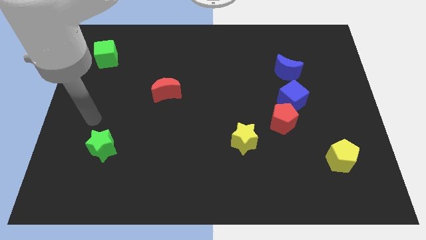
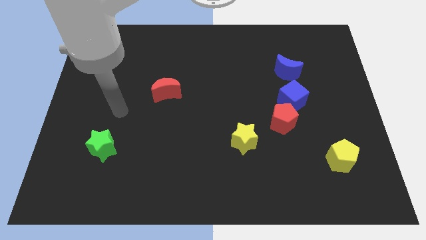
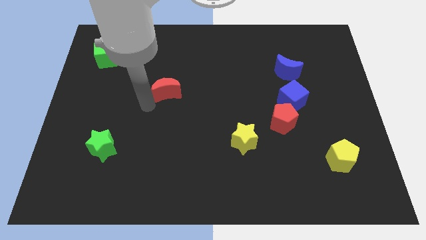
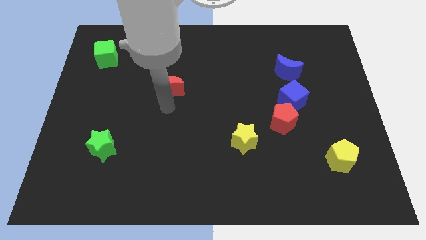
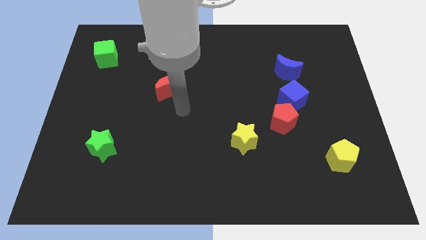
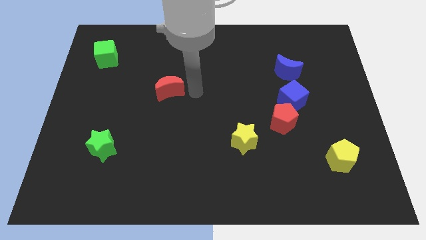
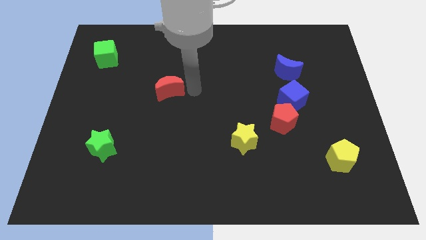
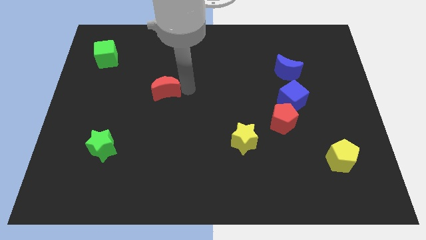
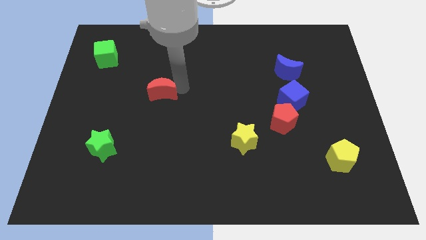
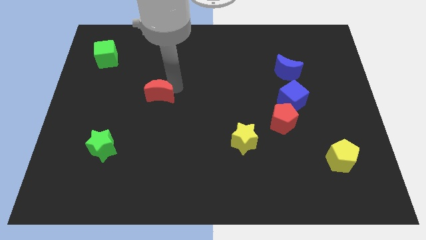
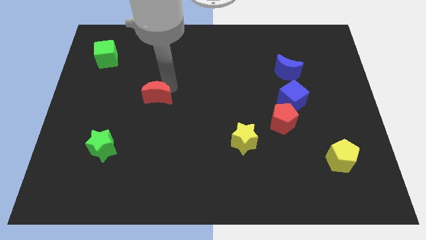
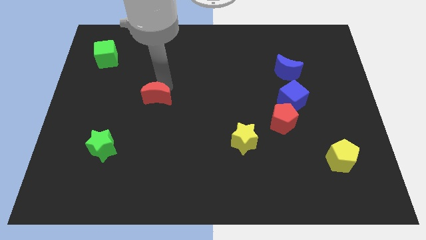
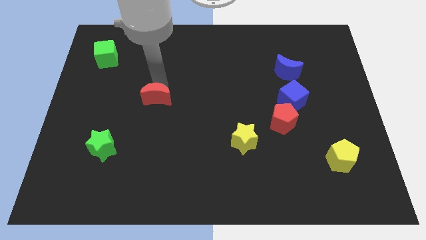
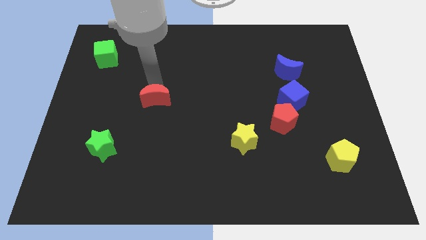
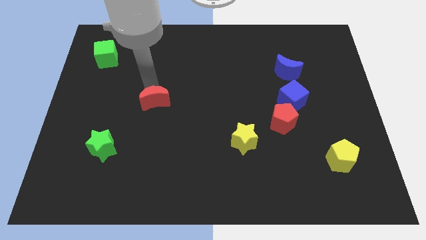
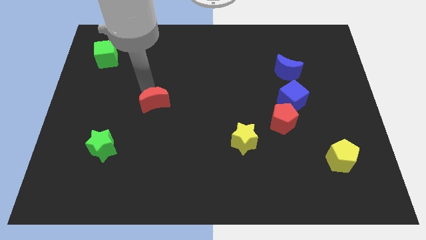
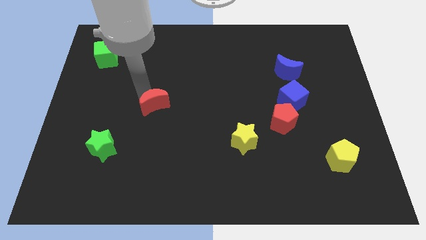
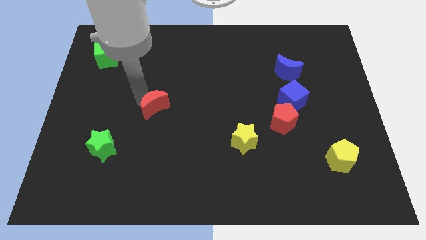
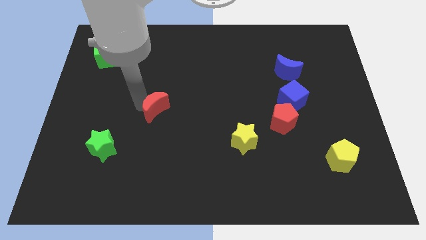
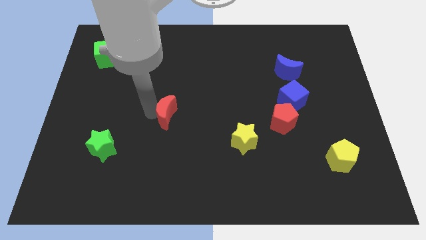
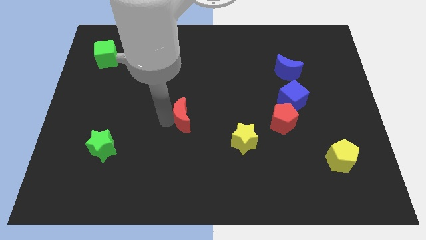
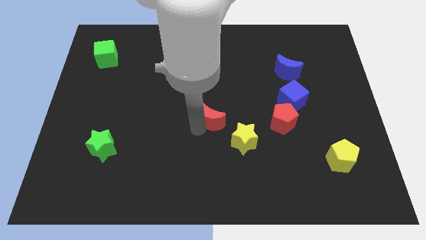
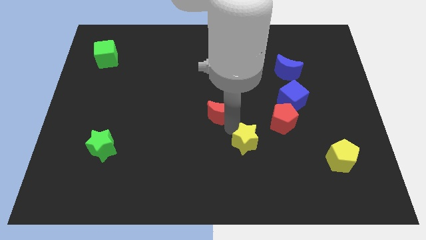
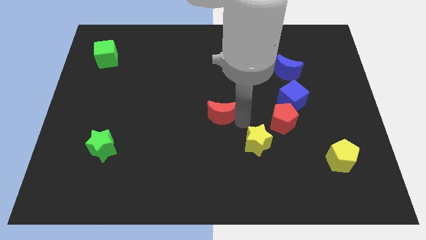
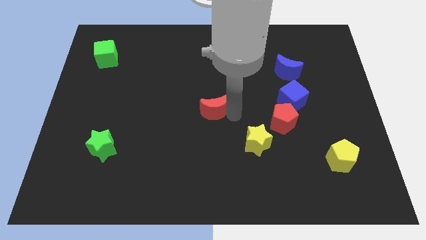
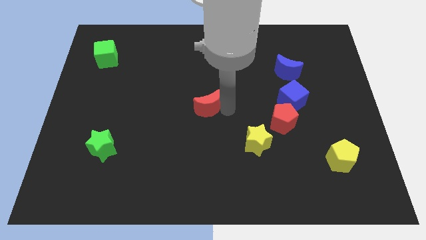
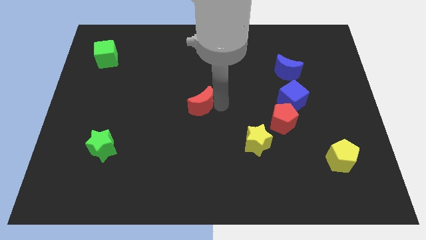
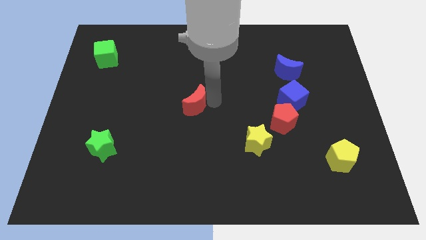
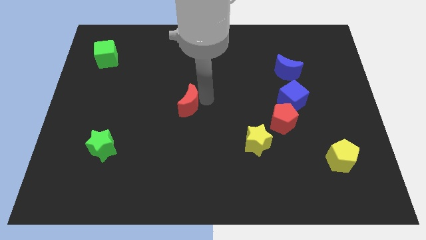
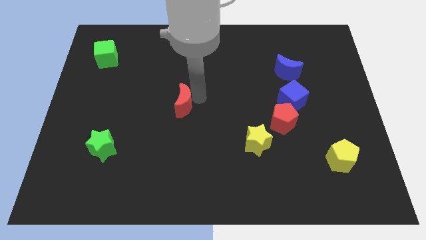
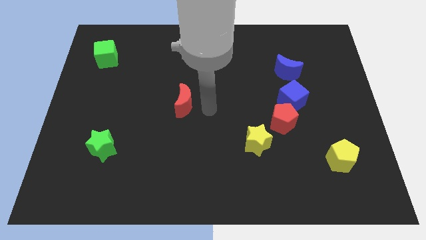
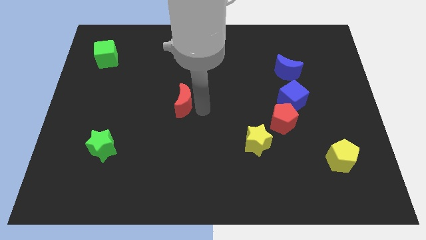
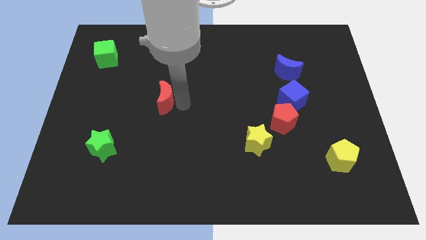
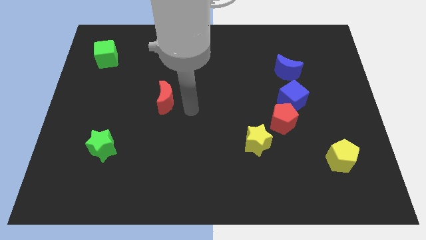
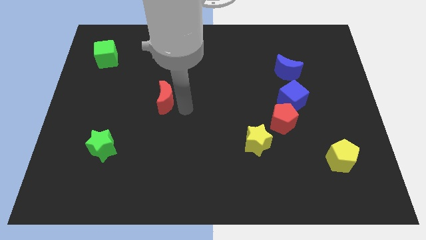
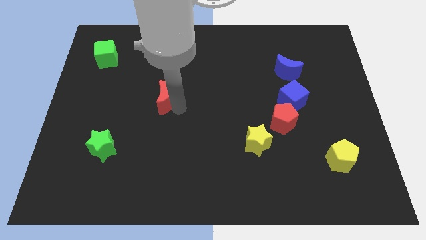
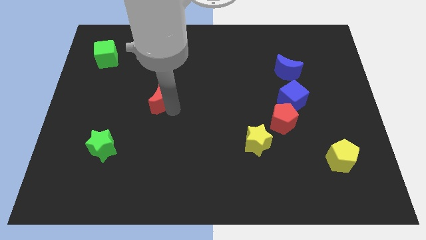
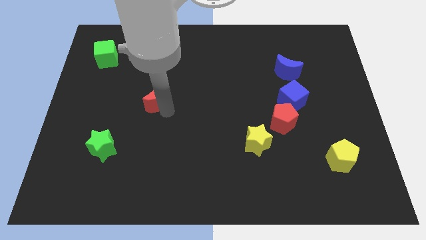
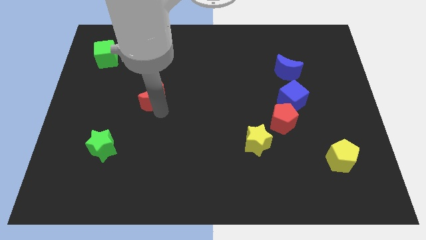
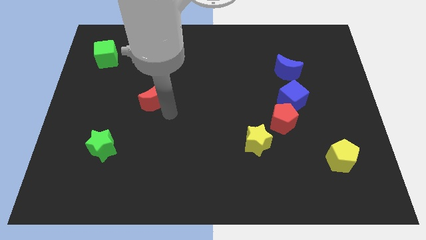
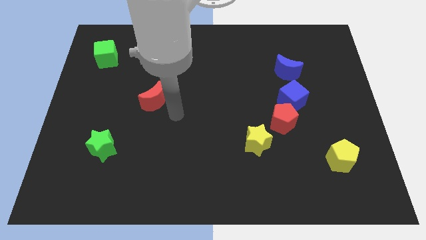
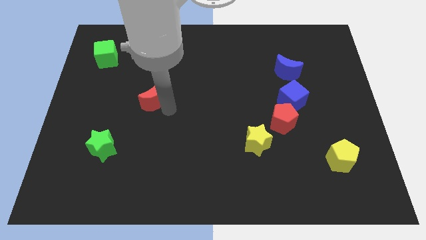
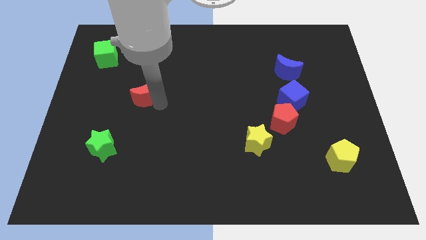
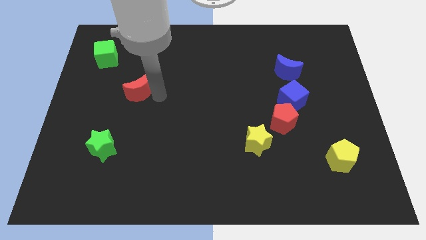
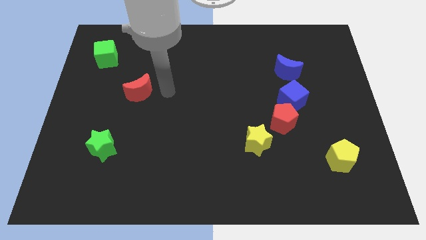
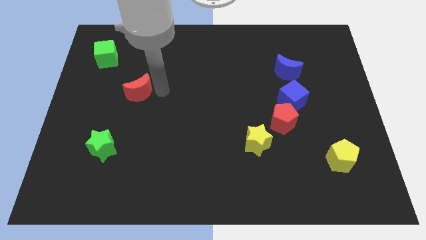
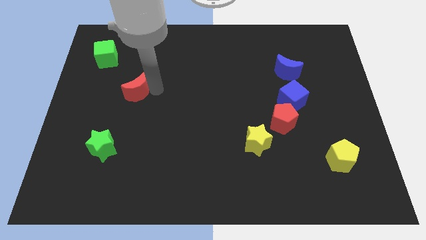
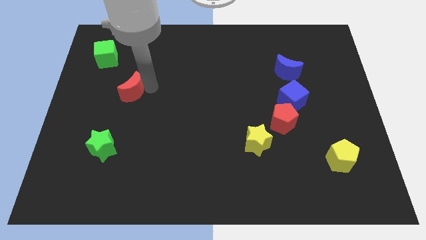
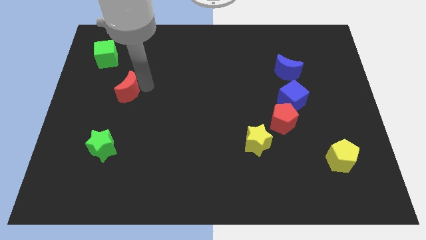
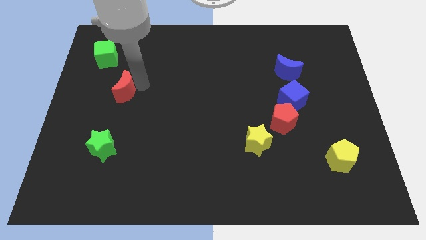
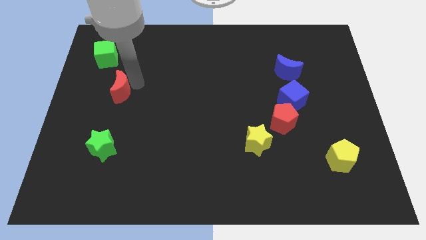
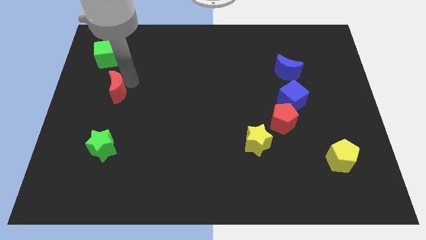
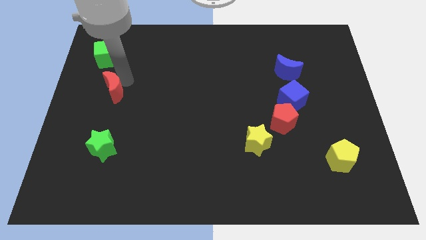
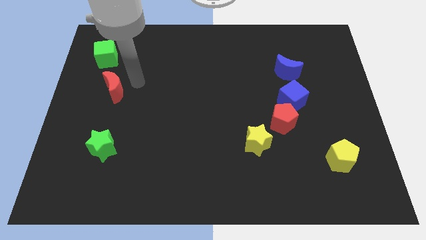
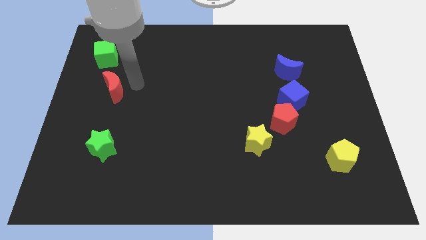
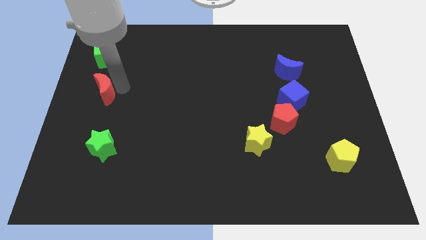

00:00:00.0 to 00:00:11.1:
move the red moon to the center left

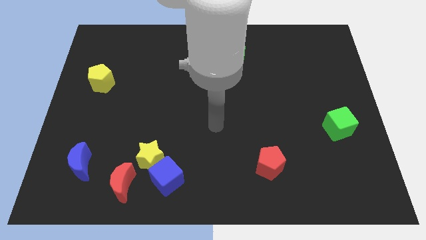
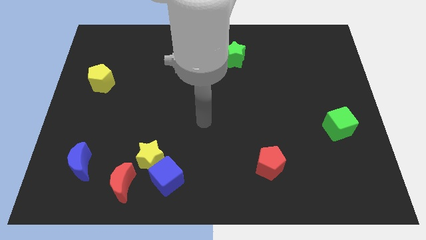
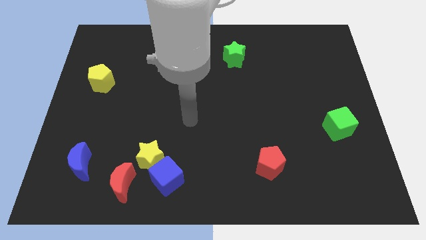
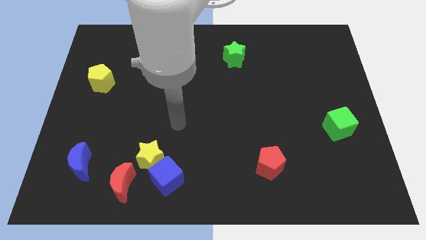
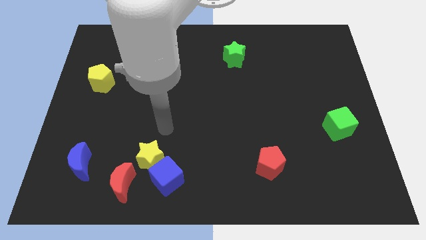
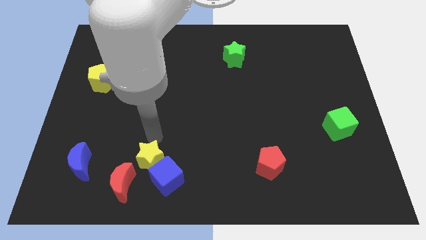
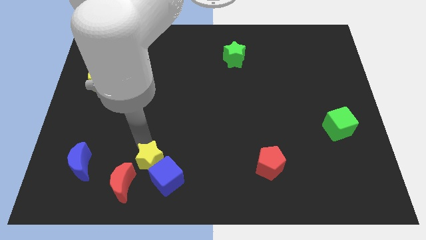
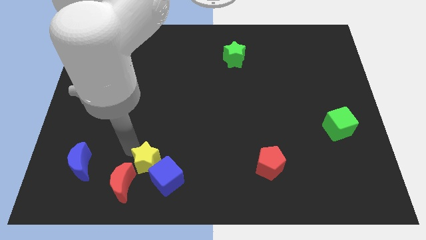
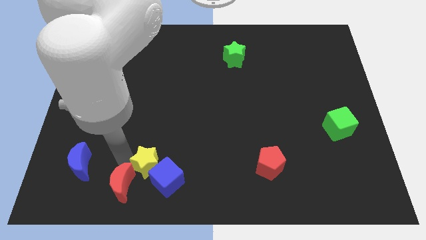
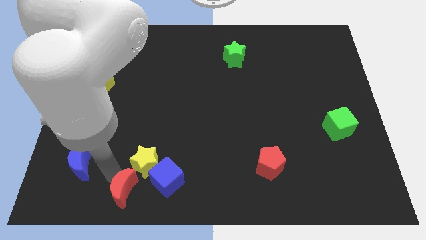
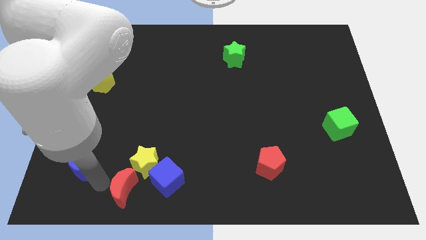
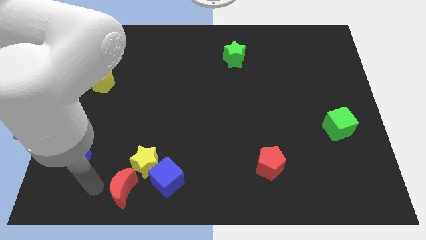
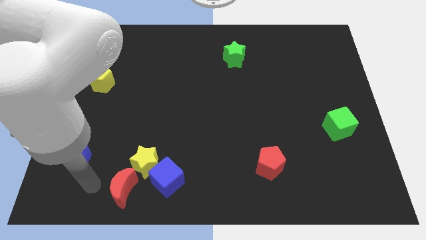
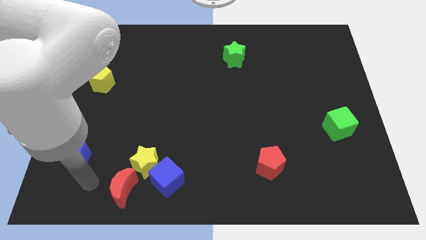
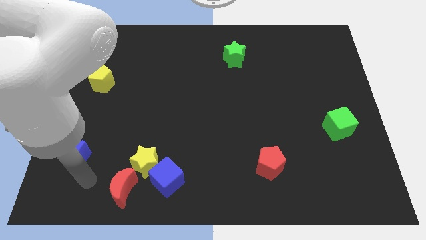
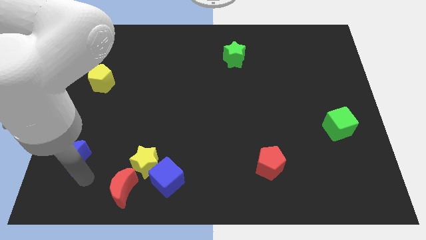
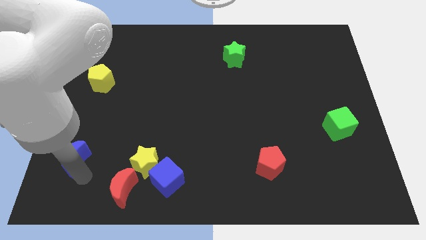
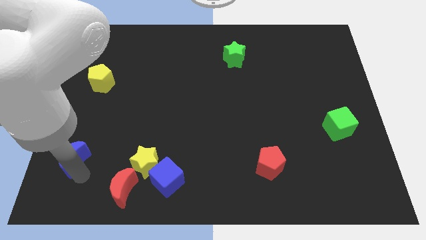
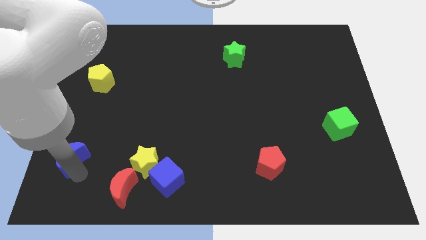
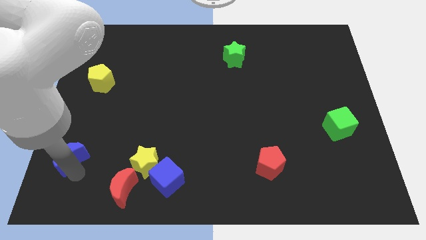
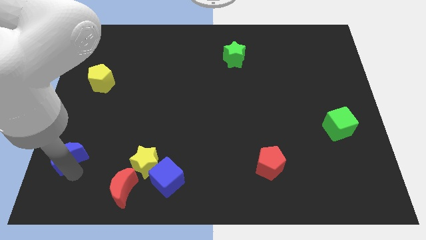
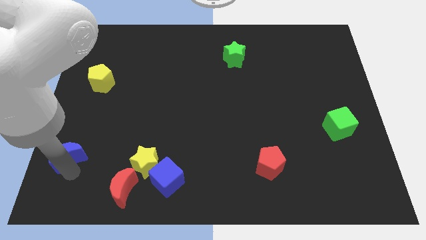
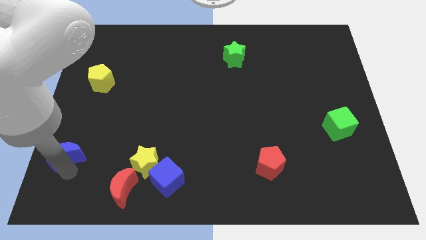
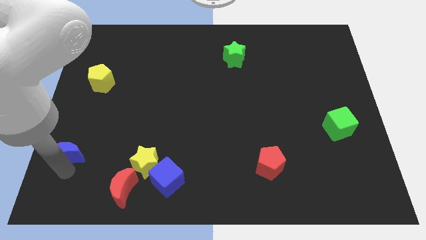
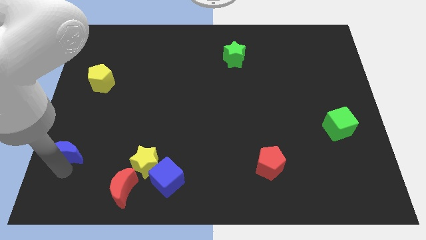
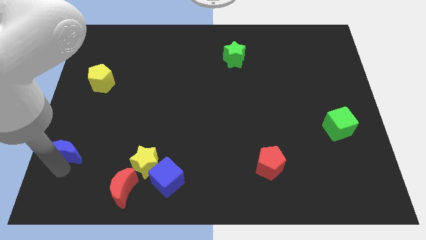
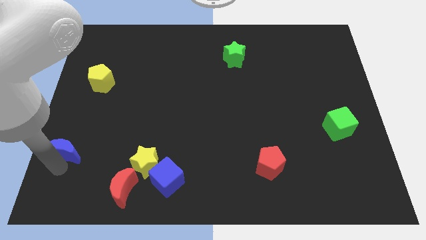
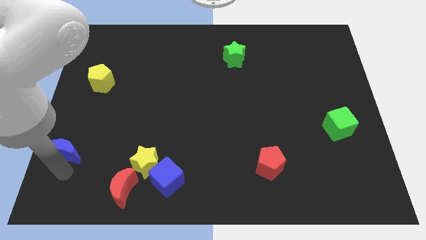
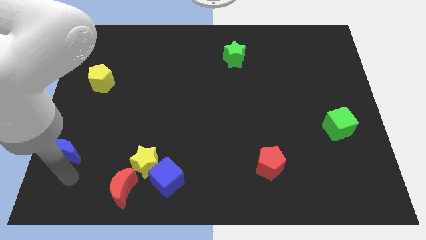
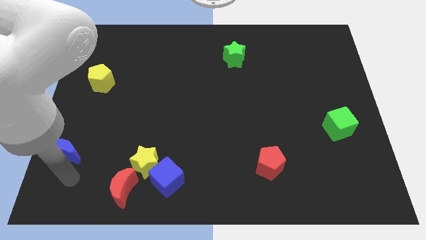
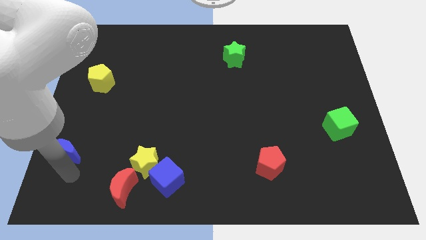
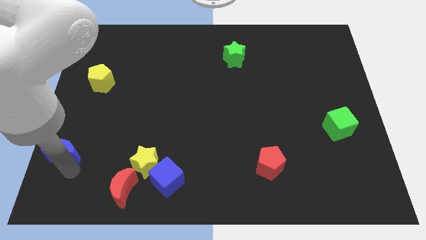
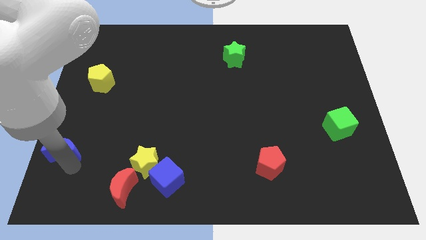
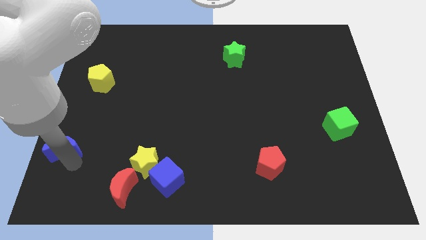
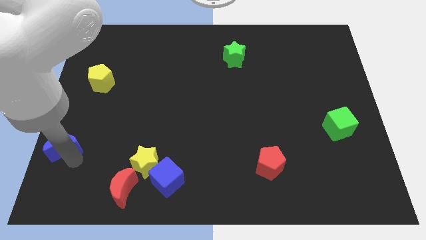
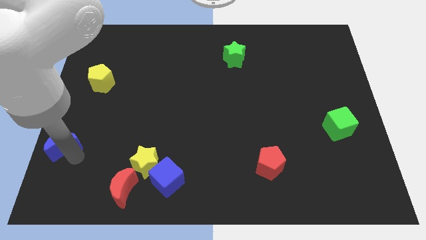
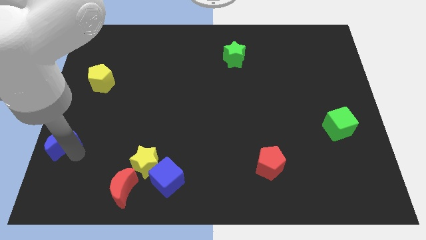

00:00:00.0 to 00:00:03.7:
move the blue moon to the left side
